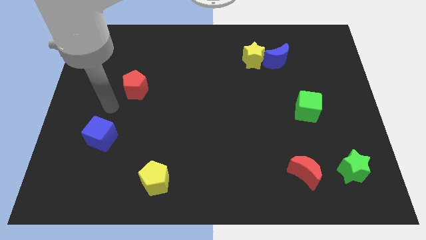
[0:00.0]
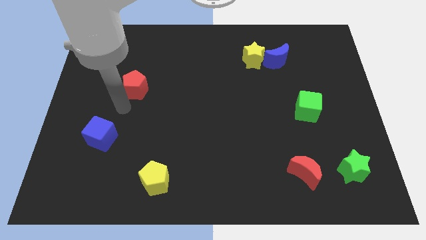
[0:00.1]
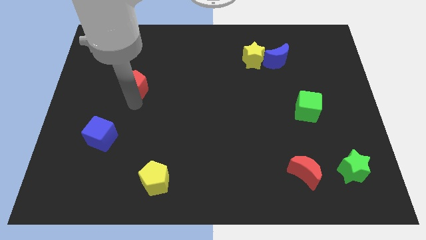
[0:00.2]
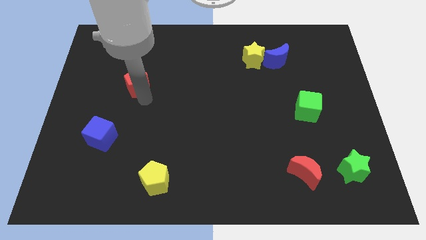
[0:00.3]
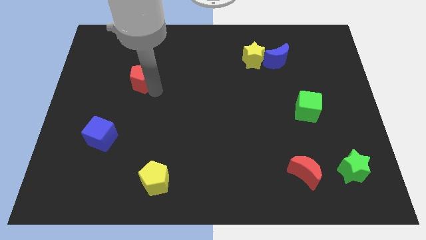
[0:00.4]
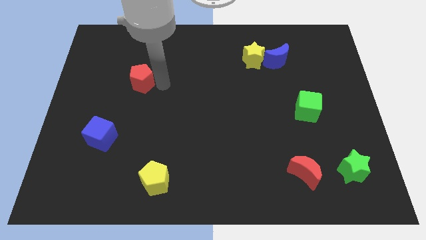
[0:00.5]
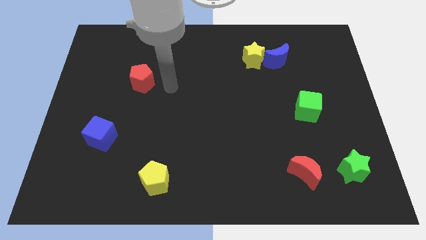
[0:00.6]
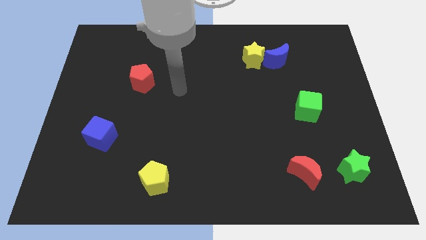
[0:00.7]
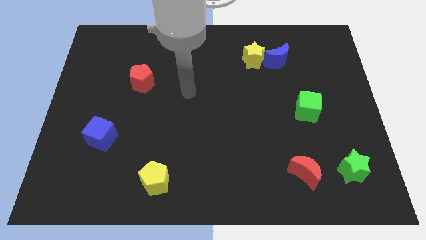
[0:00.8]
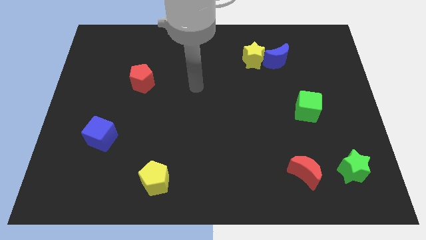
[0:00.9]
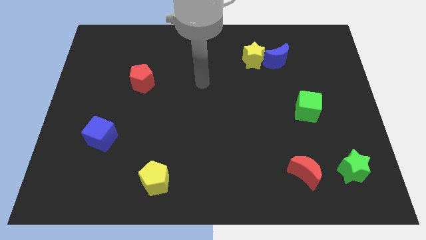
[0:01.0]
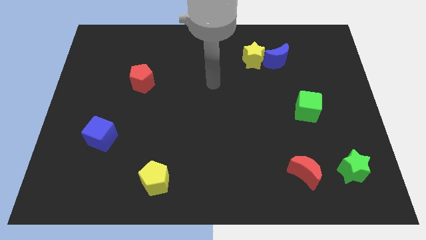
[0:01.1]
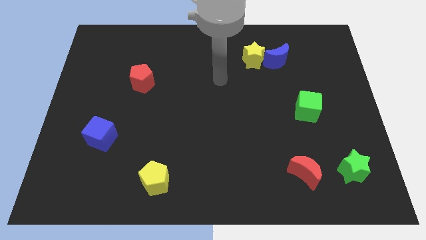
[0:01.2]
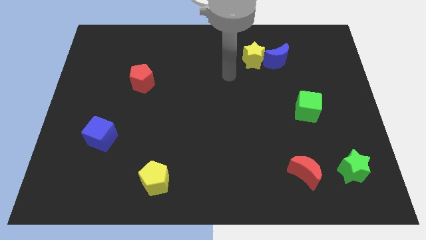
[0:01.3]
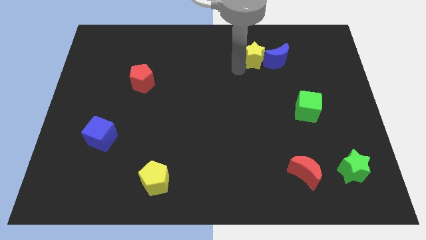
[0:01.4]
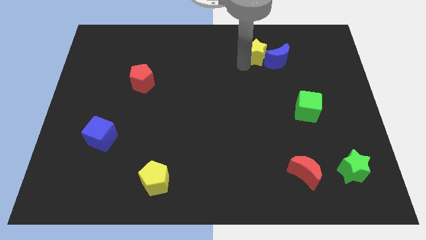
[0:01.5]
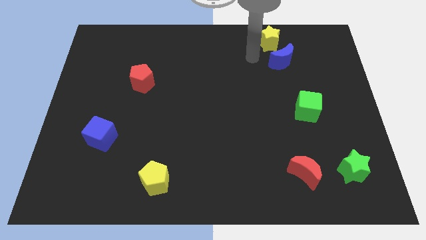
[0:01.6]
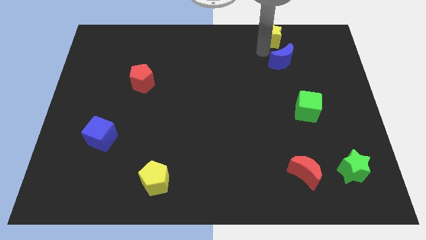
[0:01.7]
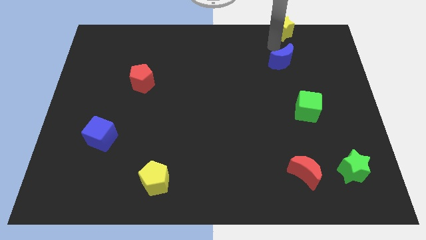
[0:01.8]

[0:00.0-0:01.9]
separate the blue moon from the yellow star

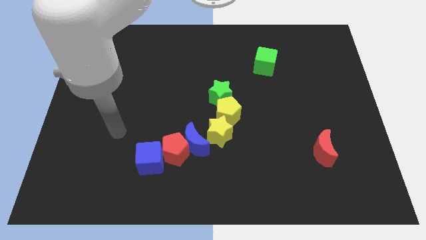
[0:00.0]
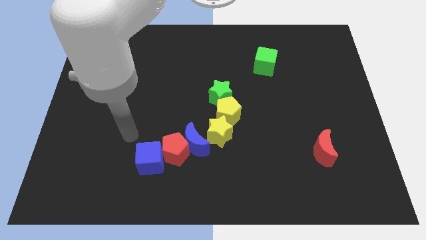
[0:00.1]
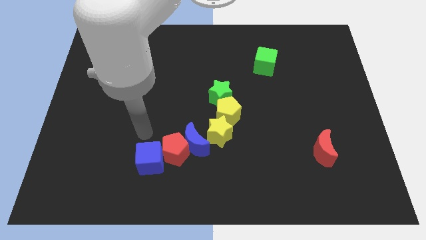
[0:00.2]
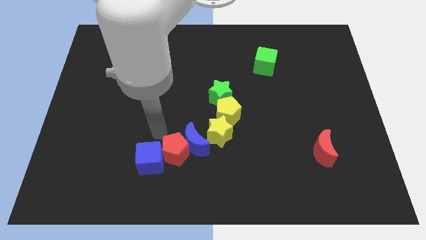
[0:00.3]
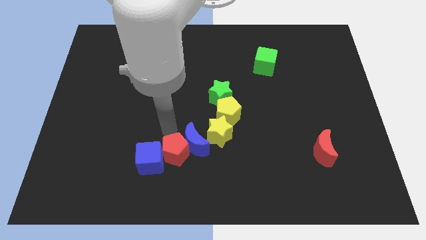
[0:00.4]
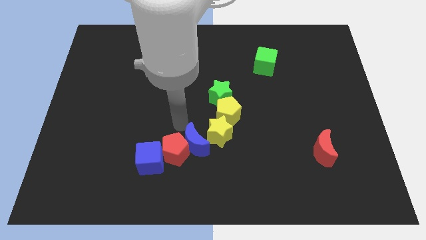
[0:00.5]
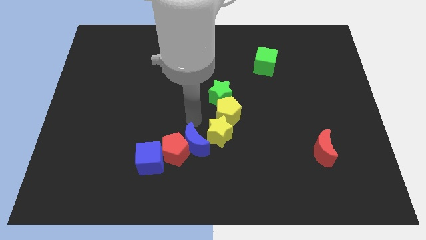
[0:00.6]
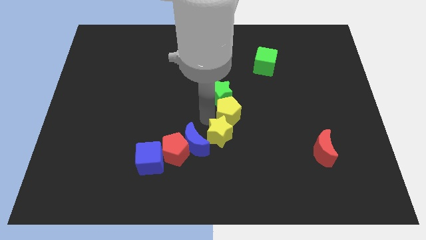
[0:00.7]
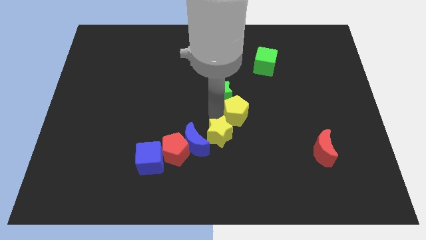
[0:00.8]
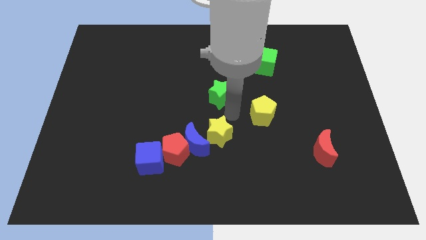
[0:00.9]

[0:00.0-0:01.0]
separate the green star from the yellow pentagon

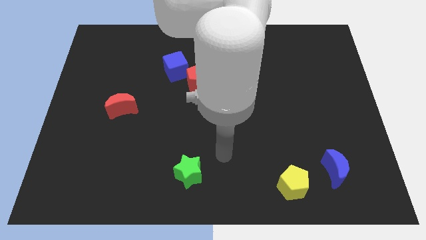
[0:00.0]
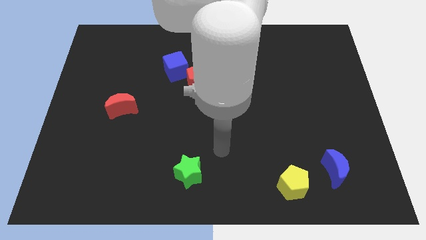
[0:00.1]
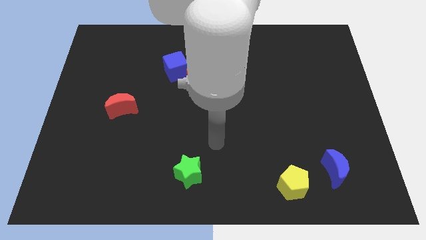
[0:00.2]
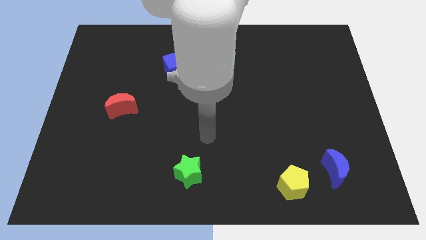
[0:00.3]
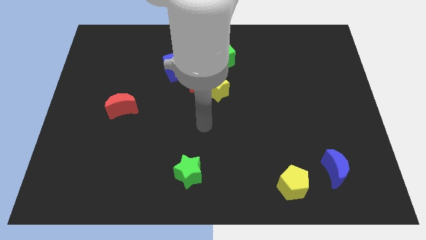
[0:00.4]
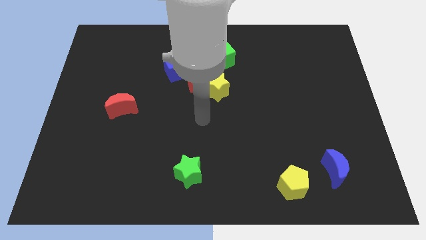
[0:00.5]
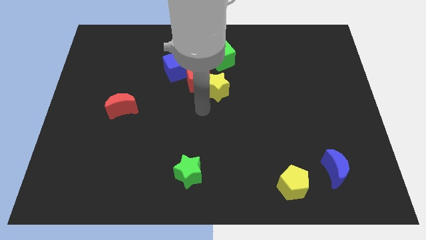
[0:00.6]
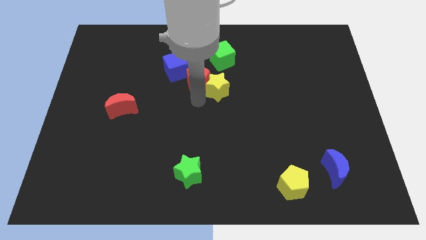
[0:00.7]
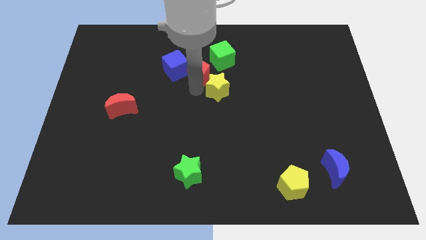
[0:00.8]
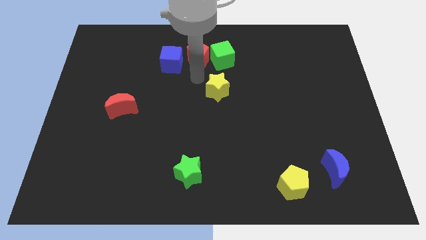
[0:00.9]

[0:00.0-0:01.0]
pull the yellow star apart from the red pentagon

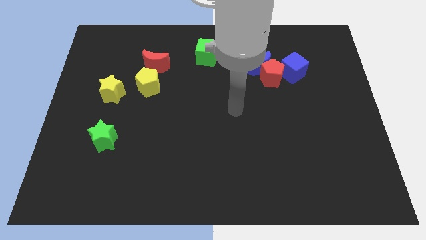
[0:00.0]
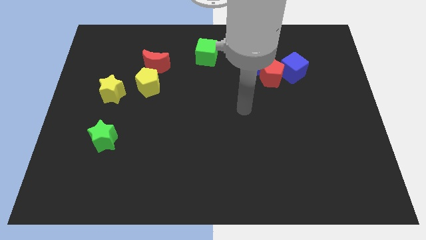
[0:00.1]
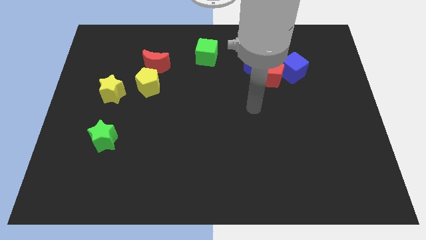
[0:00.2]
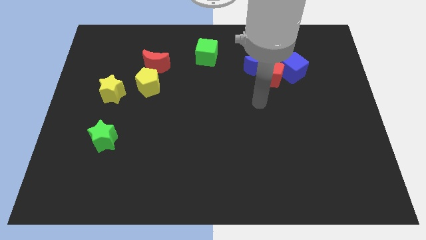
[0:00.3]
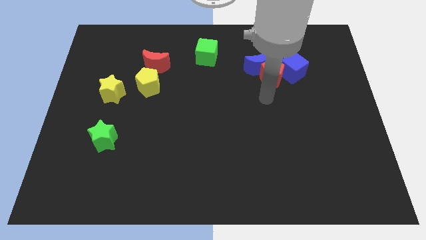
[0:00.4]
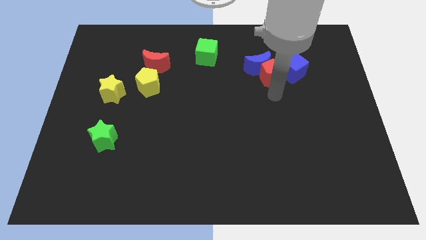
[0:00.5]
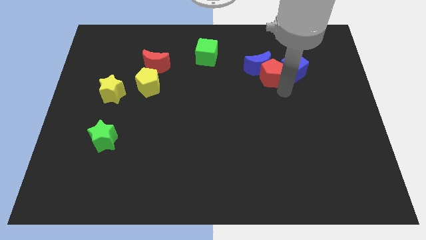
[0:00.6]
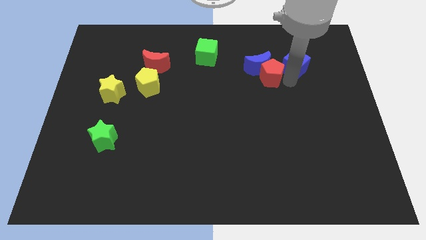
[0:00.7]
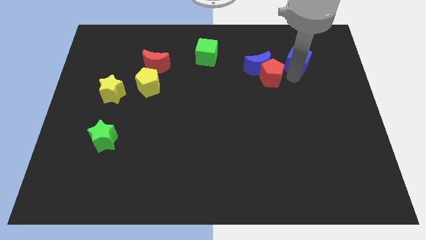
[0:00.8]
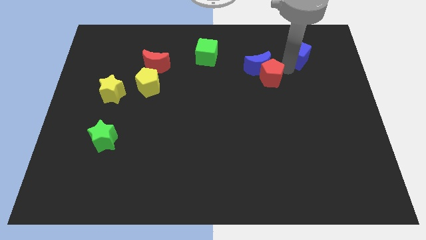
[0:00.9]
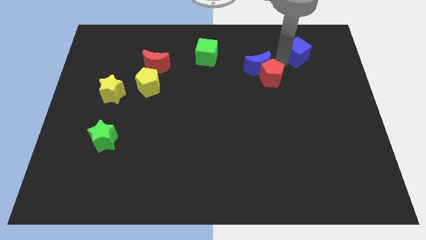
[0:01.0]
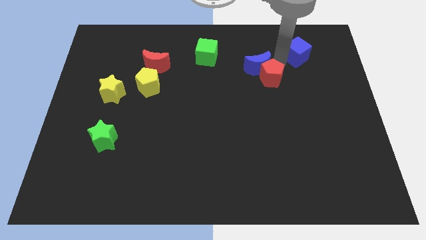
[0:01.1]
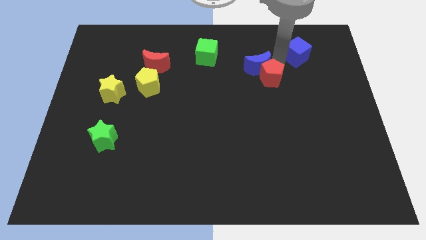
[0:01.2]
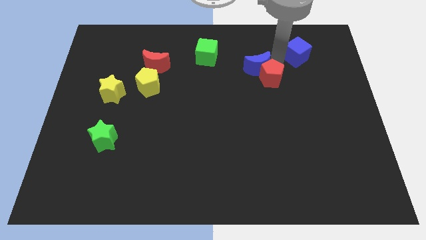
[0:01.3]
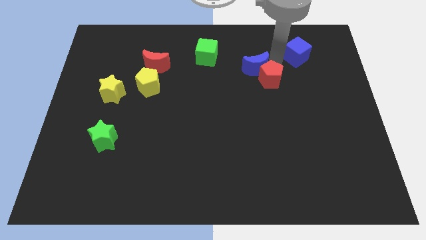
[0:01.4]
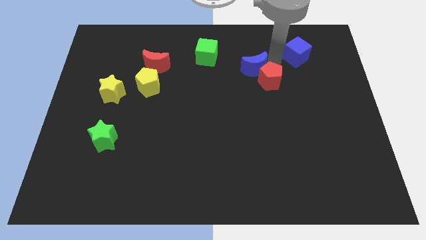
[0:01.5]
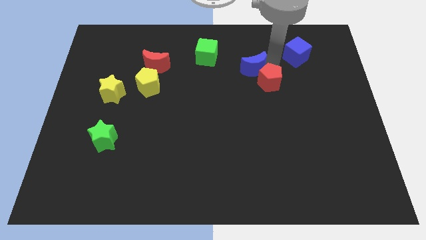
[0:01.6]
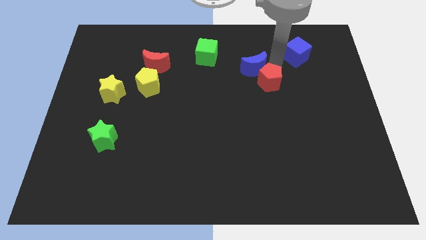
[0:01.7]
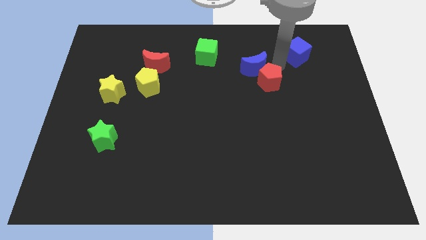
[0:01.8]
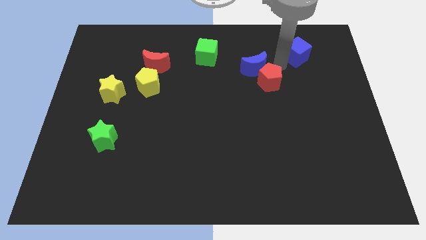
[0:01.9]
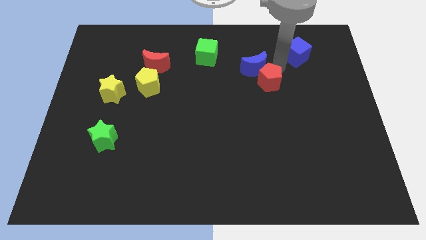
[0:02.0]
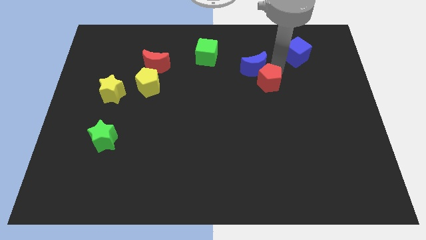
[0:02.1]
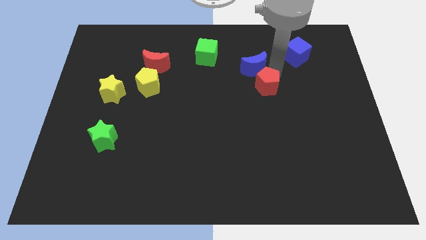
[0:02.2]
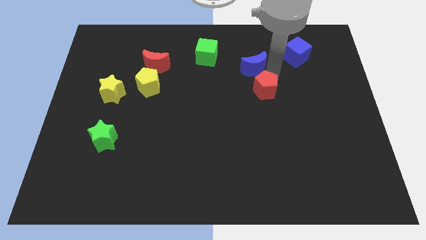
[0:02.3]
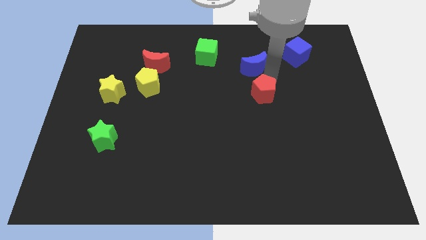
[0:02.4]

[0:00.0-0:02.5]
separate the red pentagon from the blue moon and blue cube

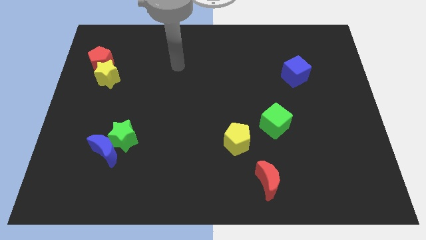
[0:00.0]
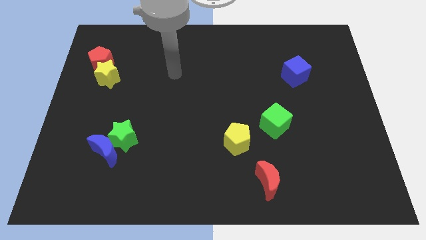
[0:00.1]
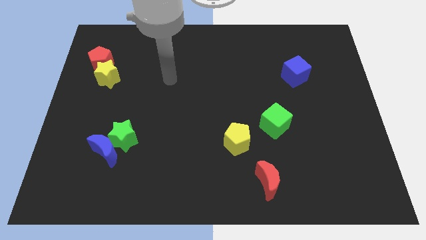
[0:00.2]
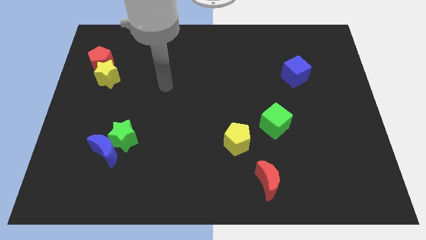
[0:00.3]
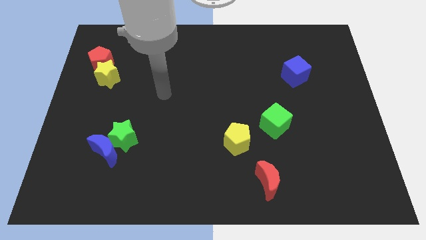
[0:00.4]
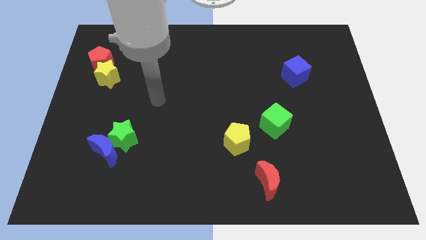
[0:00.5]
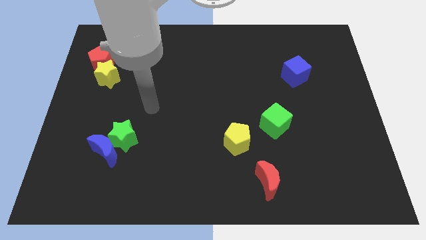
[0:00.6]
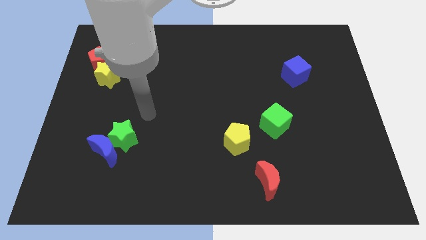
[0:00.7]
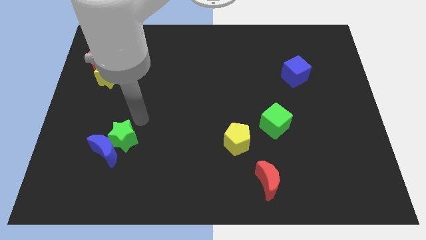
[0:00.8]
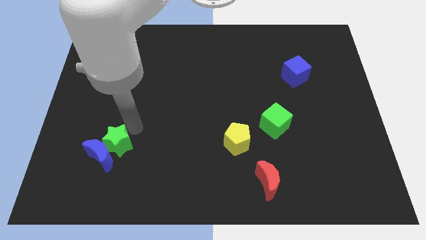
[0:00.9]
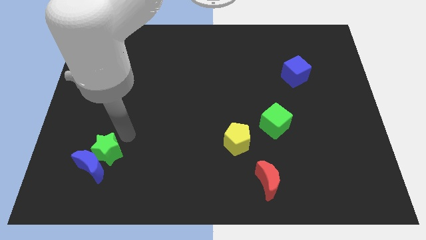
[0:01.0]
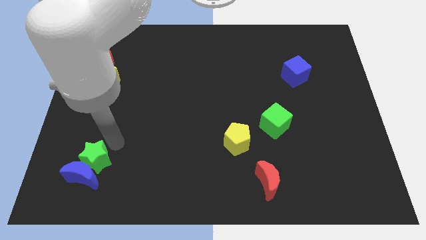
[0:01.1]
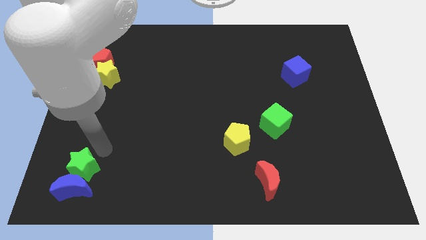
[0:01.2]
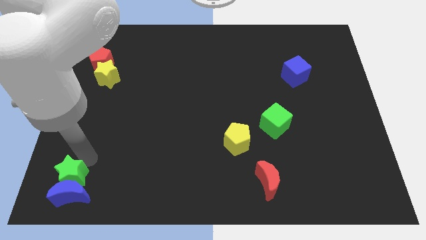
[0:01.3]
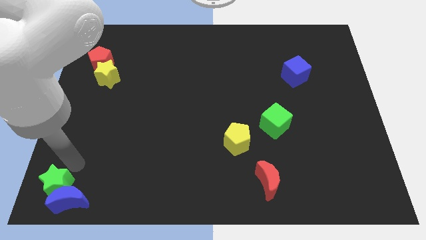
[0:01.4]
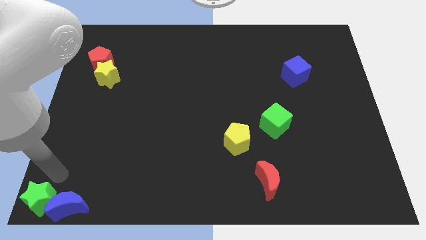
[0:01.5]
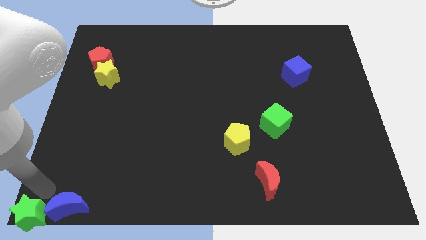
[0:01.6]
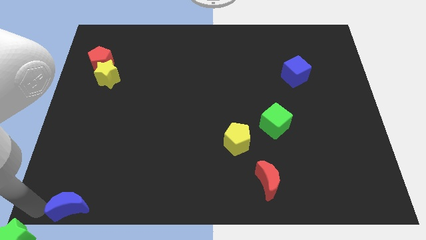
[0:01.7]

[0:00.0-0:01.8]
pull the blue moon apart from the green star

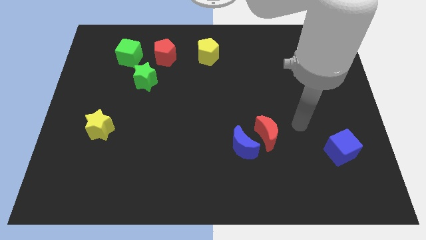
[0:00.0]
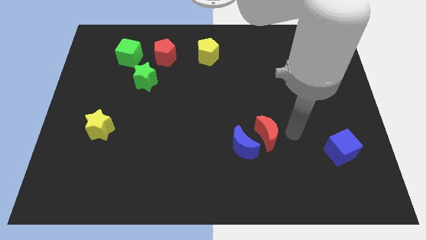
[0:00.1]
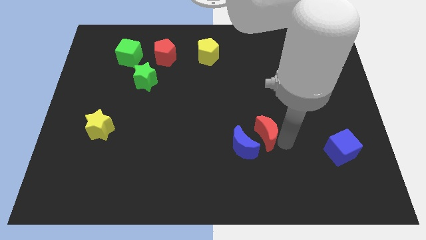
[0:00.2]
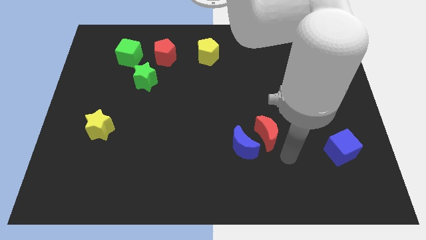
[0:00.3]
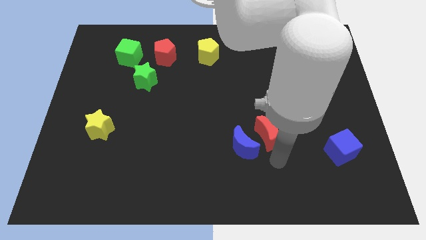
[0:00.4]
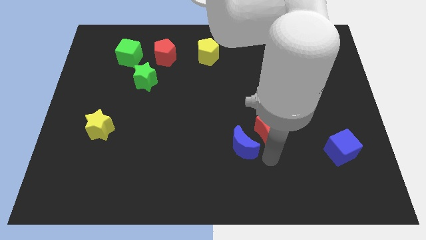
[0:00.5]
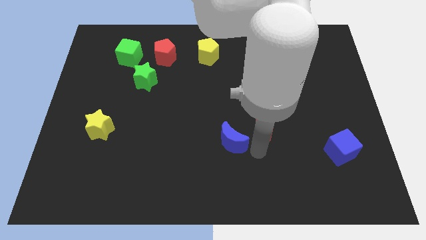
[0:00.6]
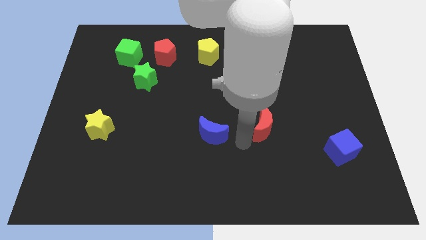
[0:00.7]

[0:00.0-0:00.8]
separate the red moon from the blue moon

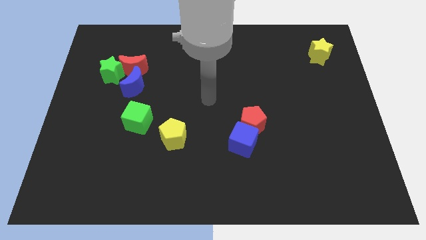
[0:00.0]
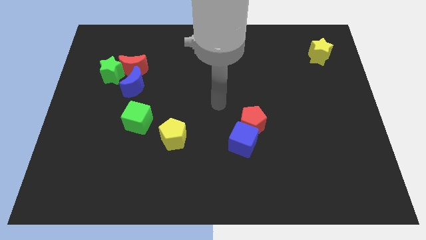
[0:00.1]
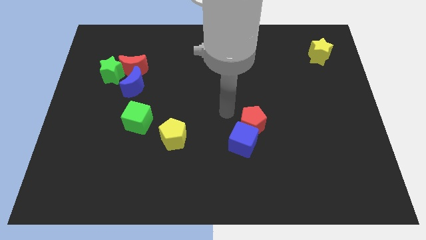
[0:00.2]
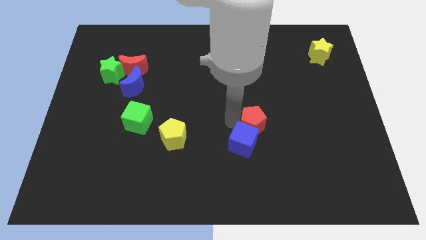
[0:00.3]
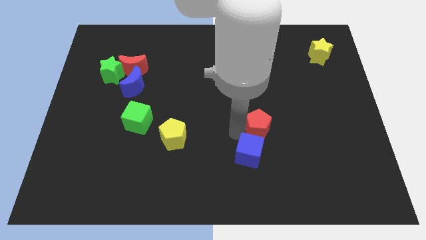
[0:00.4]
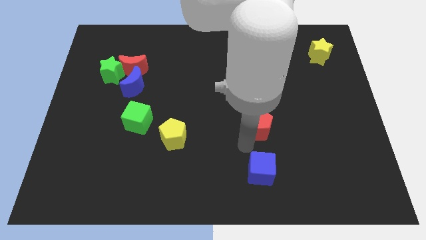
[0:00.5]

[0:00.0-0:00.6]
separate the red pentagon from the blue cube
